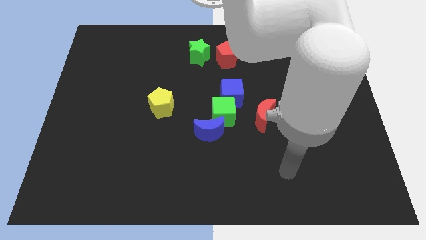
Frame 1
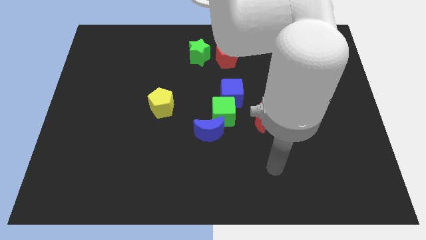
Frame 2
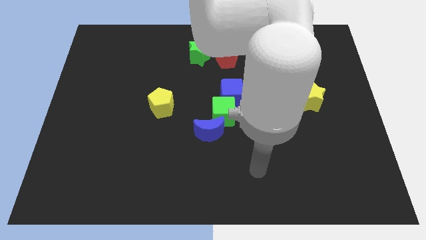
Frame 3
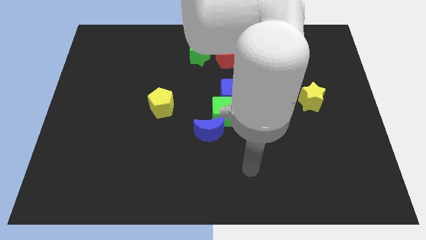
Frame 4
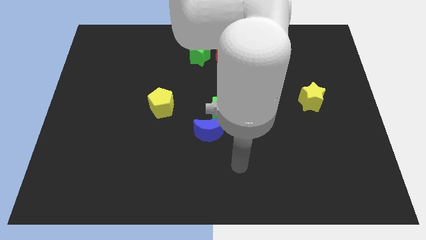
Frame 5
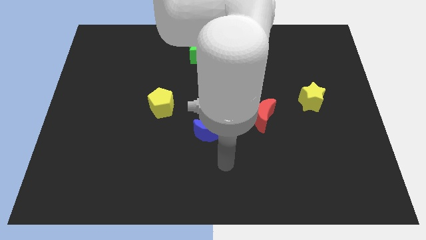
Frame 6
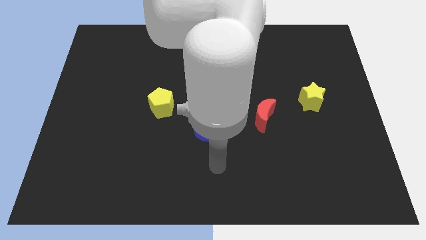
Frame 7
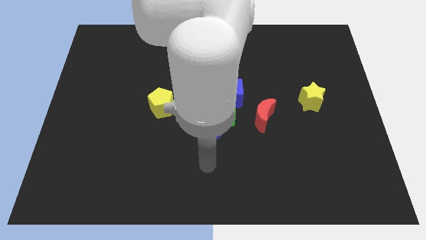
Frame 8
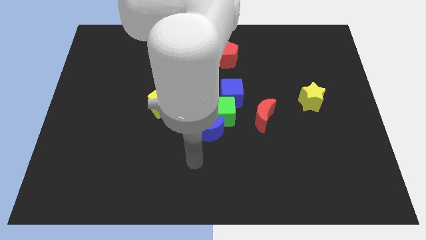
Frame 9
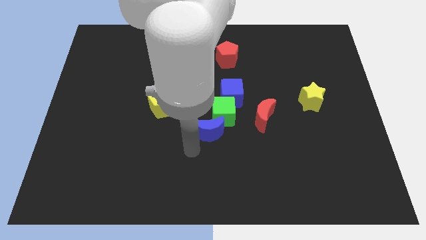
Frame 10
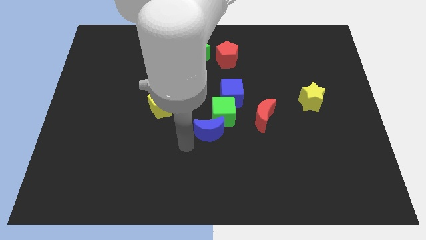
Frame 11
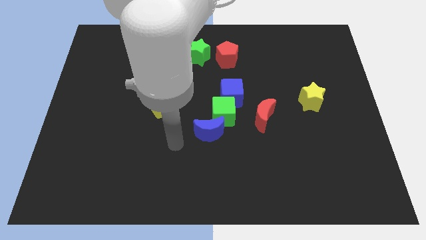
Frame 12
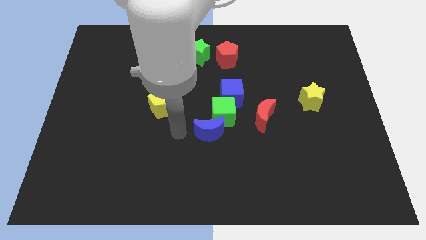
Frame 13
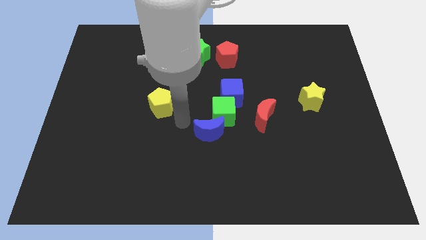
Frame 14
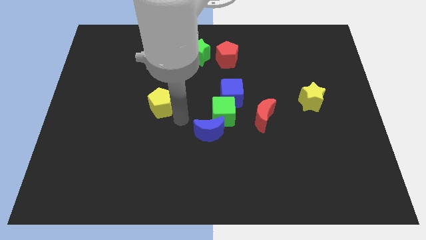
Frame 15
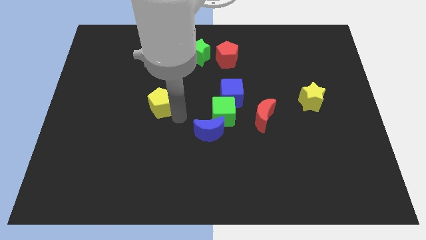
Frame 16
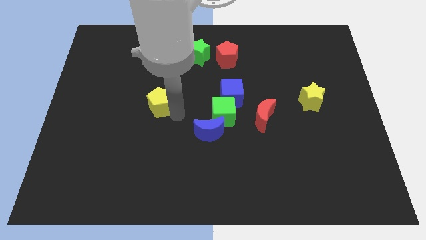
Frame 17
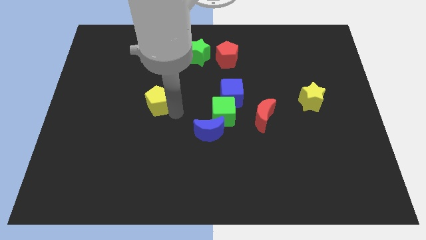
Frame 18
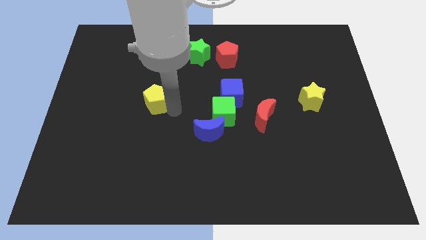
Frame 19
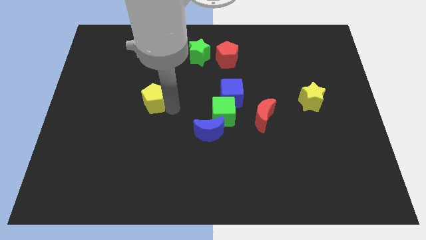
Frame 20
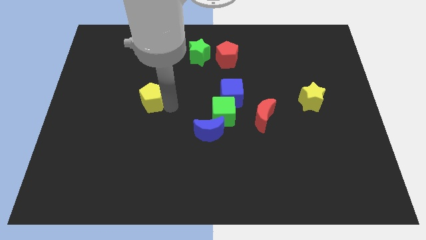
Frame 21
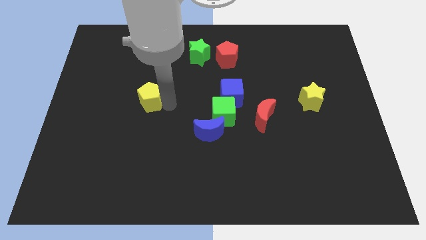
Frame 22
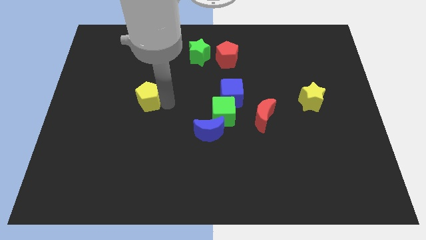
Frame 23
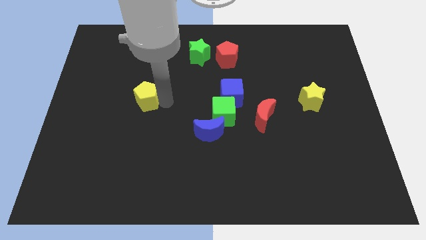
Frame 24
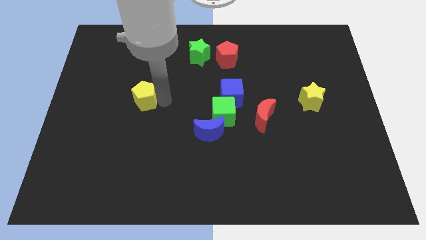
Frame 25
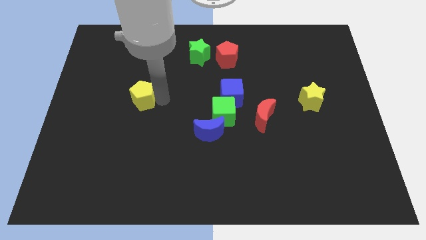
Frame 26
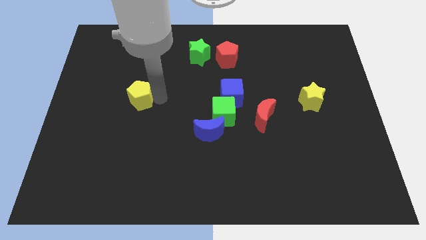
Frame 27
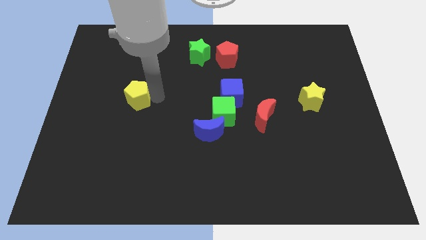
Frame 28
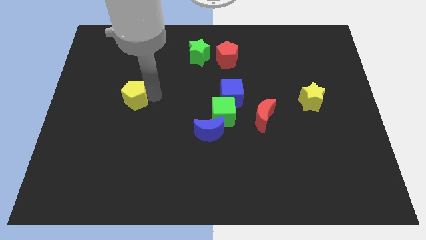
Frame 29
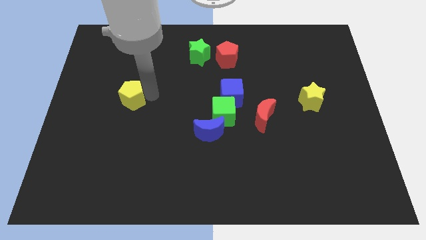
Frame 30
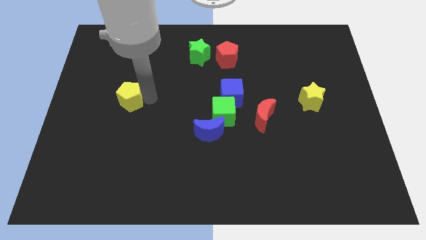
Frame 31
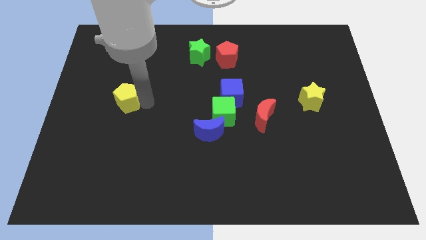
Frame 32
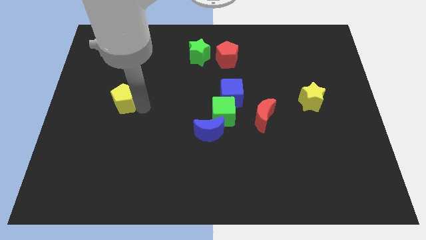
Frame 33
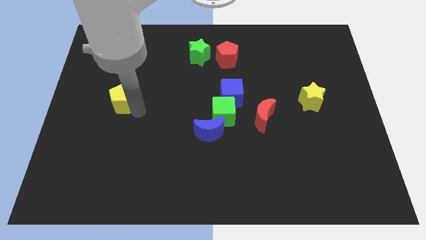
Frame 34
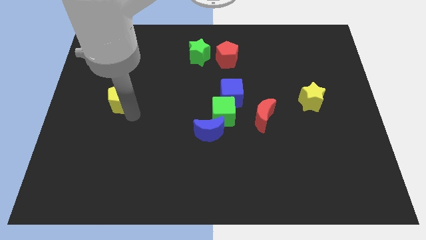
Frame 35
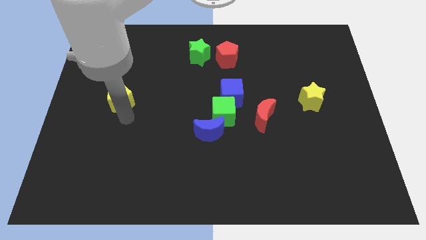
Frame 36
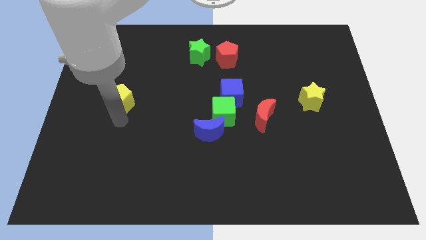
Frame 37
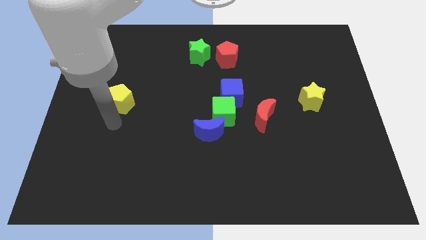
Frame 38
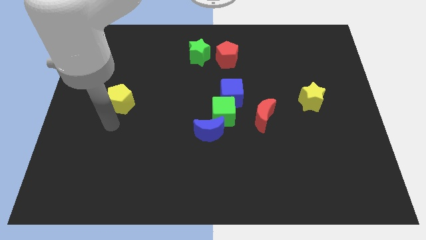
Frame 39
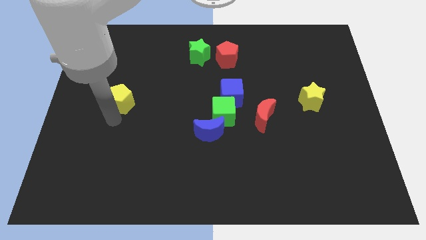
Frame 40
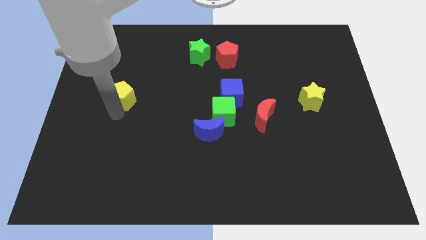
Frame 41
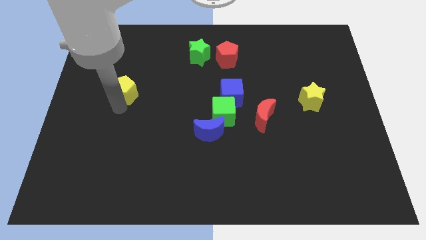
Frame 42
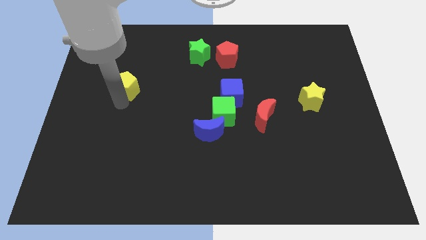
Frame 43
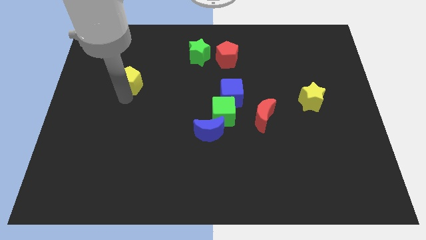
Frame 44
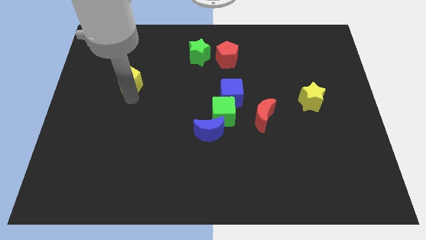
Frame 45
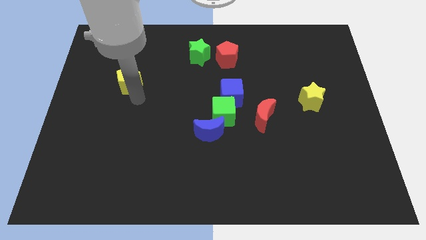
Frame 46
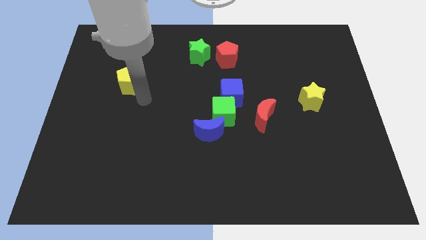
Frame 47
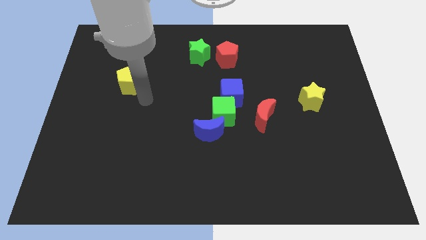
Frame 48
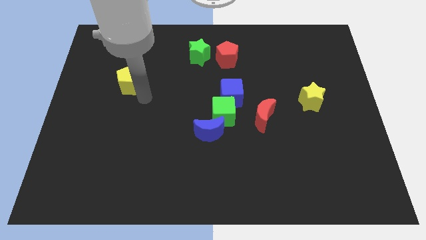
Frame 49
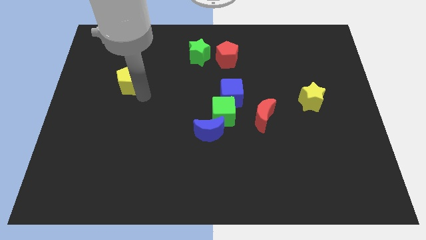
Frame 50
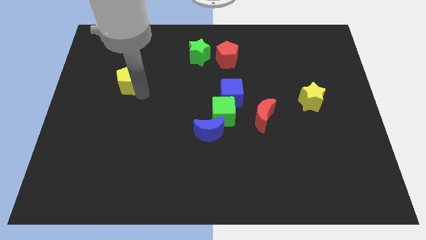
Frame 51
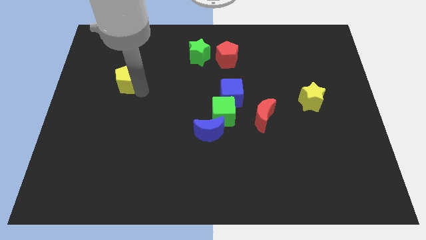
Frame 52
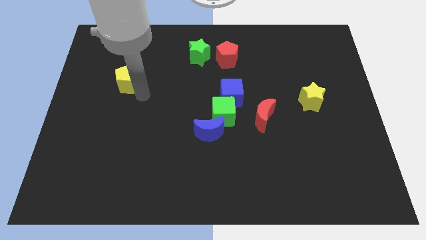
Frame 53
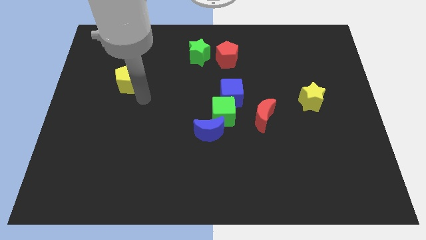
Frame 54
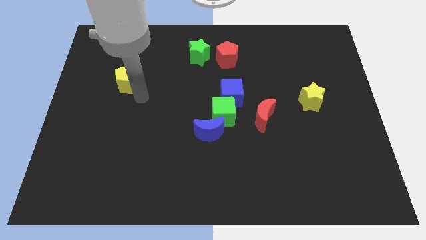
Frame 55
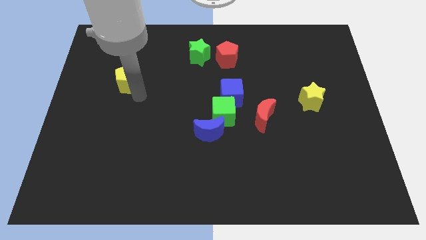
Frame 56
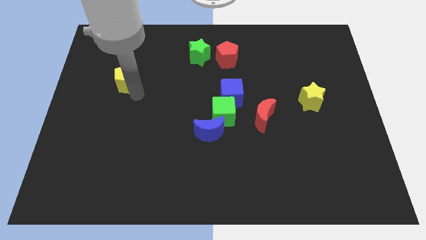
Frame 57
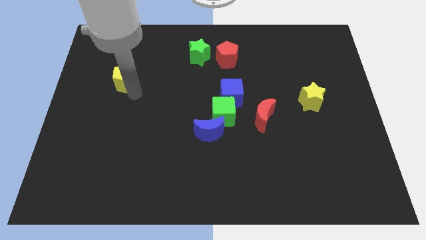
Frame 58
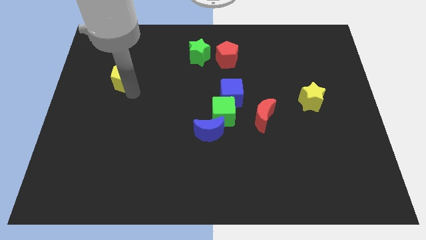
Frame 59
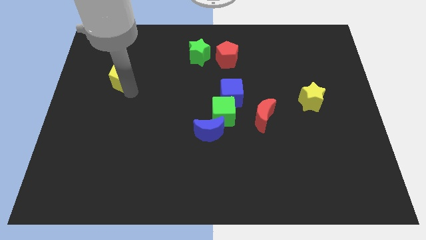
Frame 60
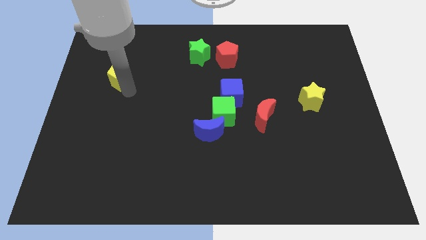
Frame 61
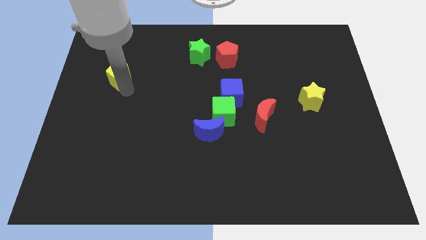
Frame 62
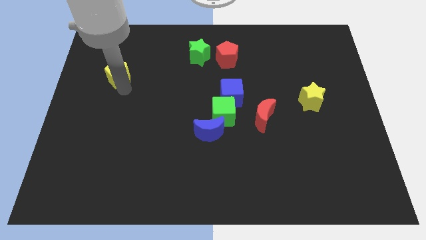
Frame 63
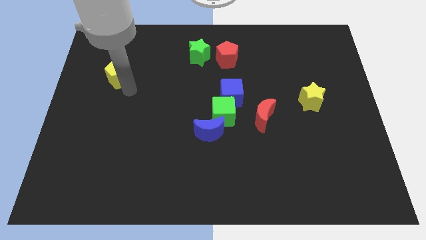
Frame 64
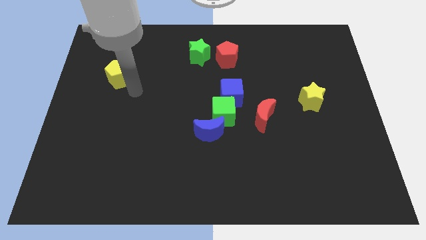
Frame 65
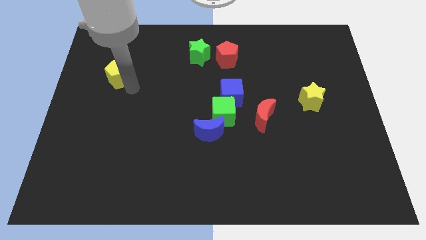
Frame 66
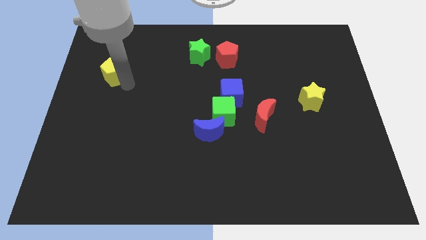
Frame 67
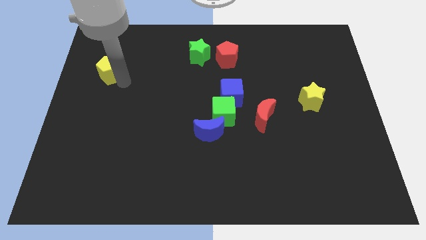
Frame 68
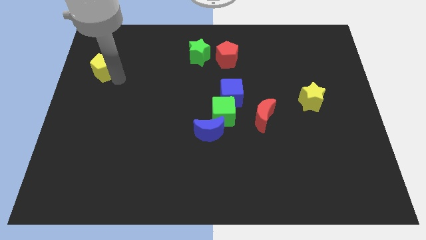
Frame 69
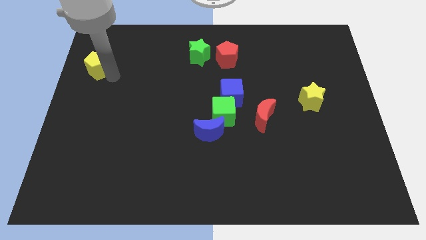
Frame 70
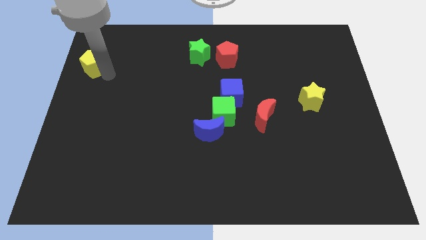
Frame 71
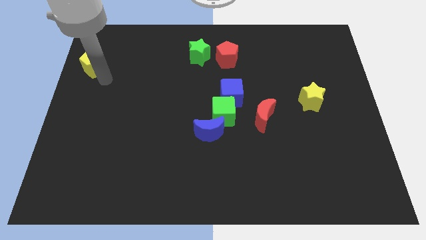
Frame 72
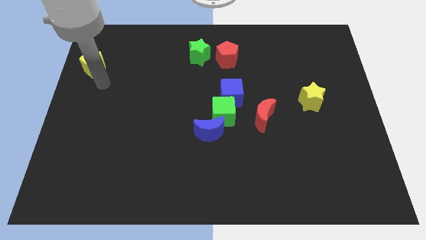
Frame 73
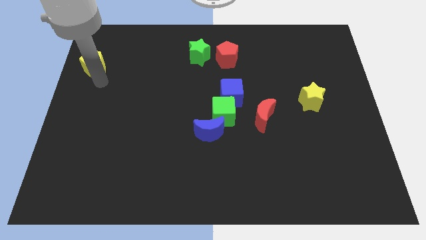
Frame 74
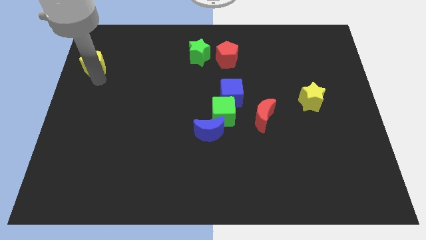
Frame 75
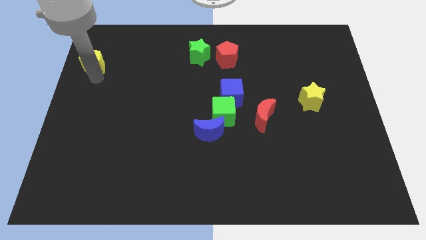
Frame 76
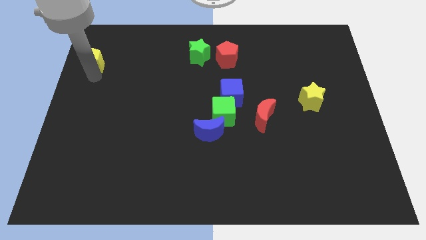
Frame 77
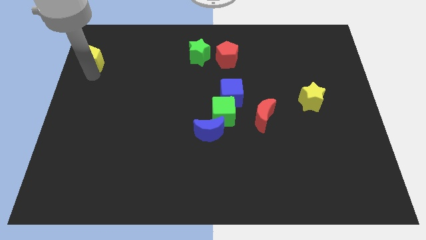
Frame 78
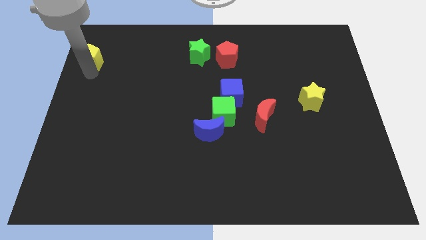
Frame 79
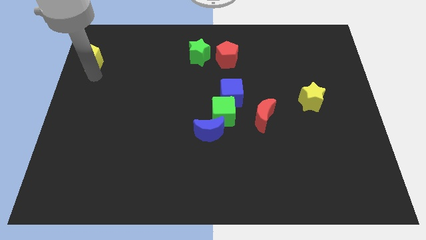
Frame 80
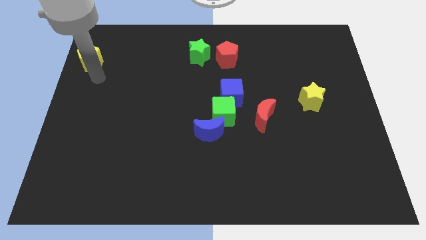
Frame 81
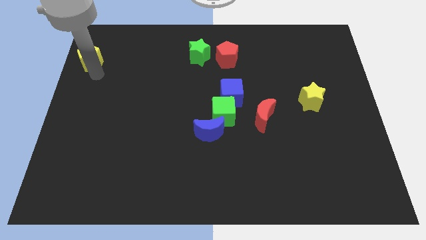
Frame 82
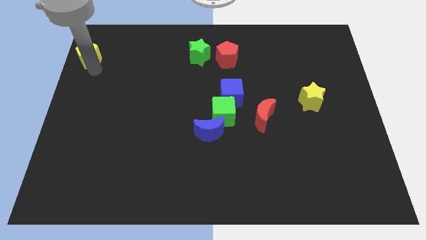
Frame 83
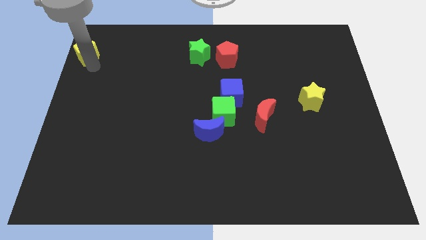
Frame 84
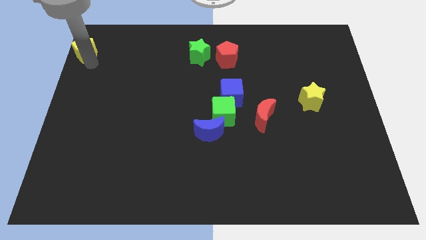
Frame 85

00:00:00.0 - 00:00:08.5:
move the yellow pentagon to the top left corner
